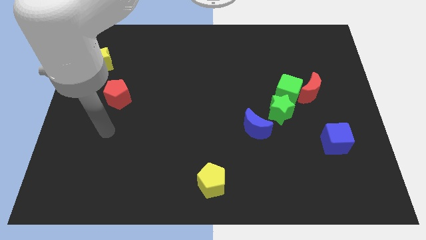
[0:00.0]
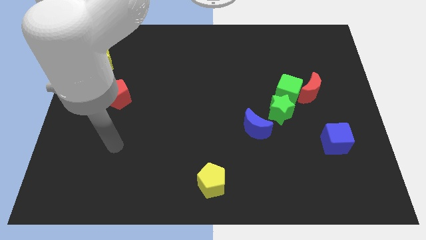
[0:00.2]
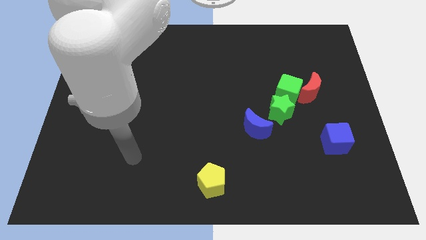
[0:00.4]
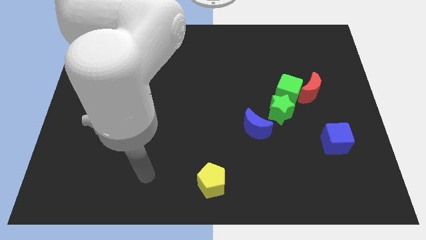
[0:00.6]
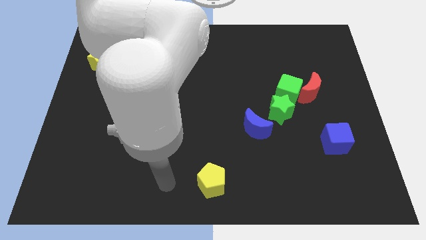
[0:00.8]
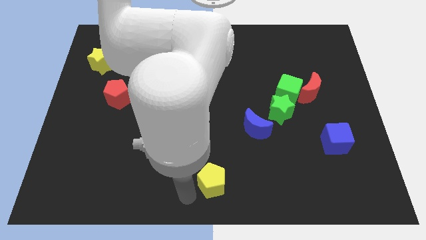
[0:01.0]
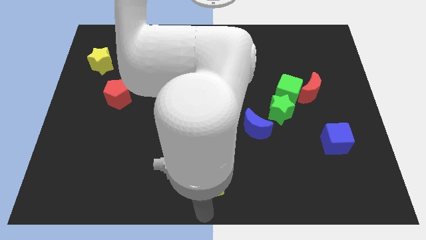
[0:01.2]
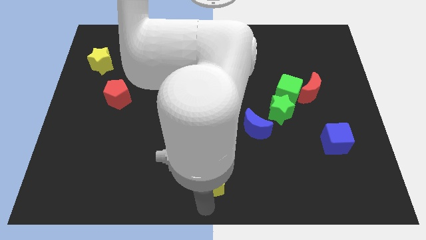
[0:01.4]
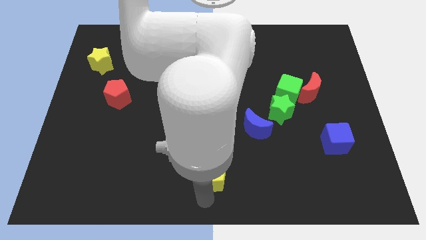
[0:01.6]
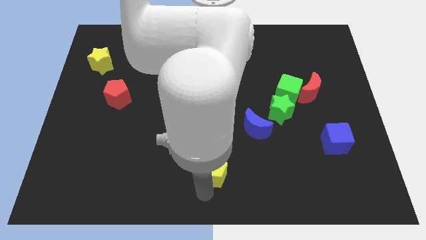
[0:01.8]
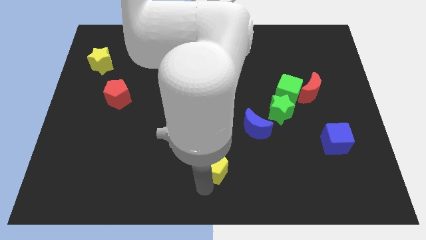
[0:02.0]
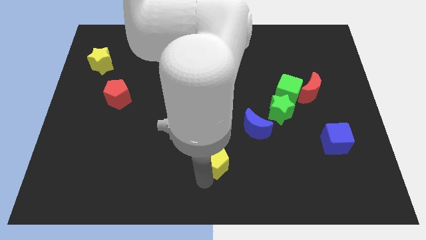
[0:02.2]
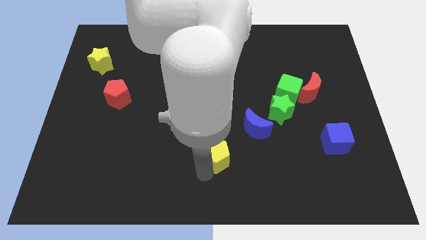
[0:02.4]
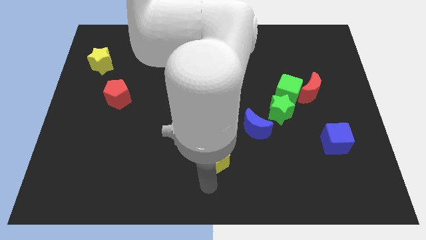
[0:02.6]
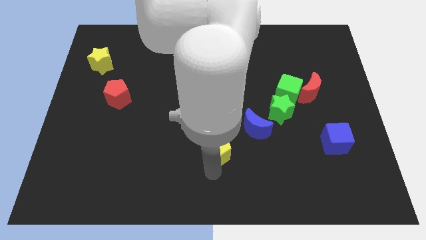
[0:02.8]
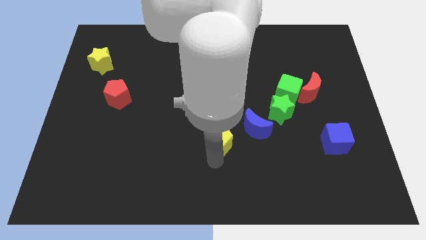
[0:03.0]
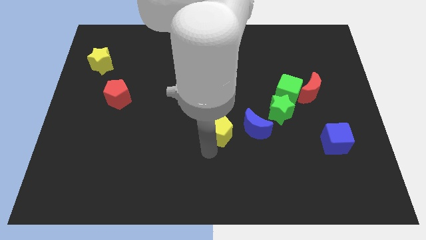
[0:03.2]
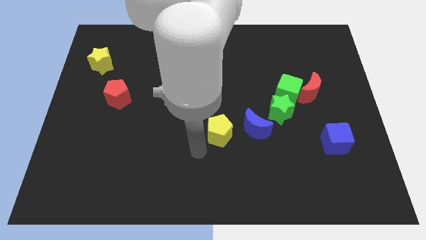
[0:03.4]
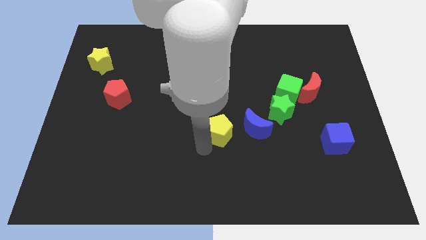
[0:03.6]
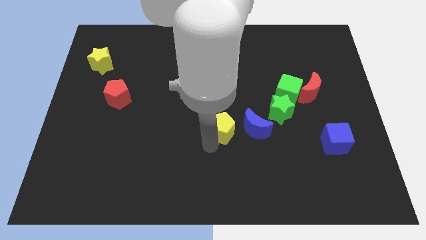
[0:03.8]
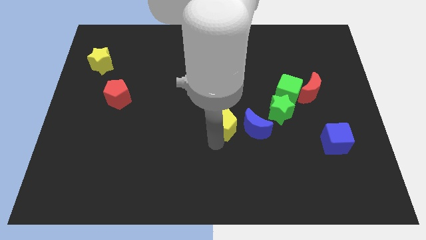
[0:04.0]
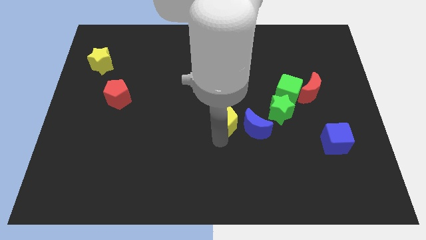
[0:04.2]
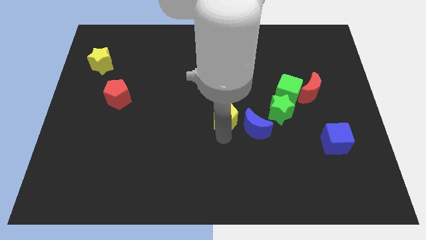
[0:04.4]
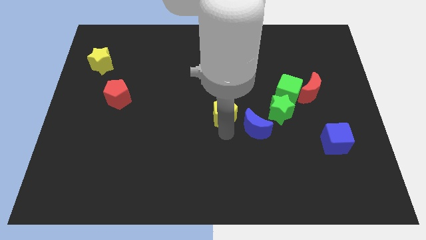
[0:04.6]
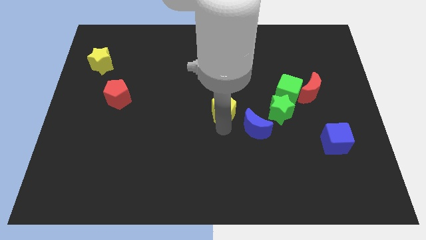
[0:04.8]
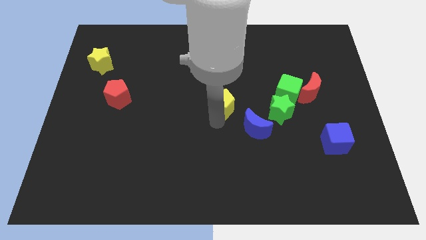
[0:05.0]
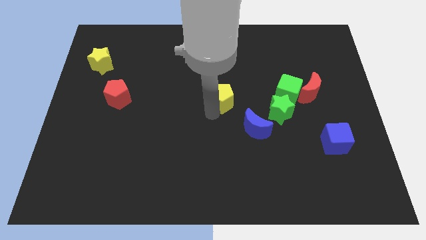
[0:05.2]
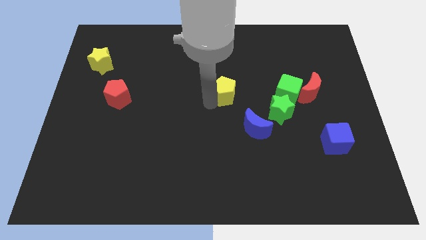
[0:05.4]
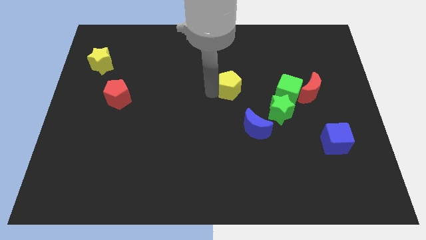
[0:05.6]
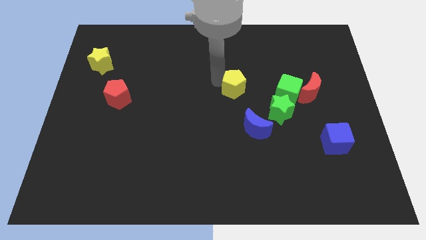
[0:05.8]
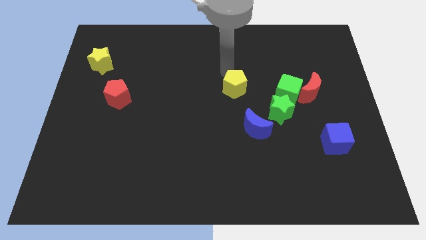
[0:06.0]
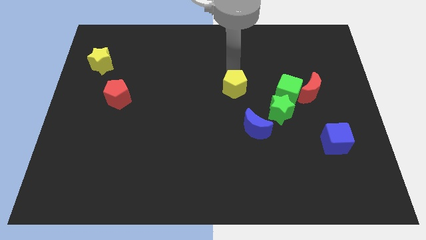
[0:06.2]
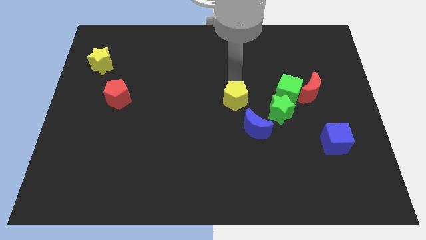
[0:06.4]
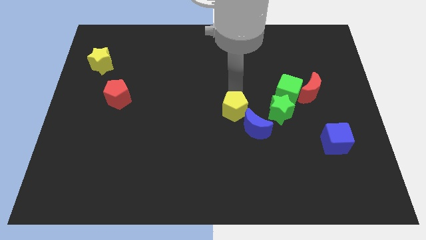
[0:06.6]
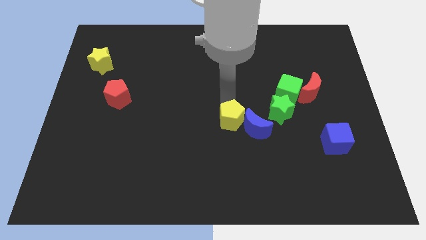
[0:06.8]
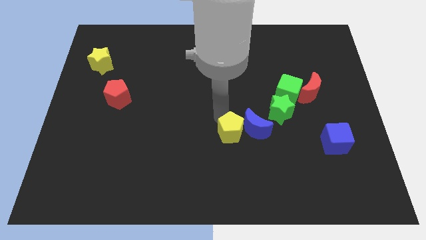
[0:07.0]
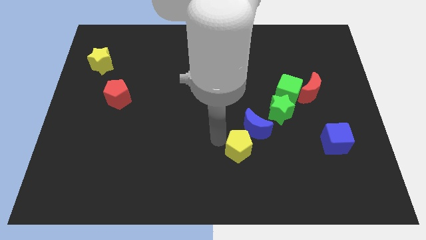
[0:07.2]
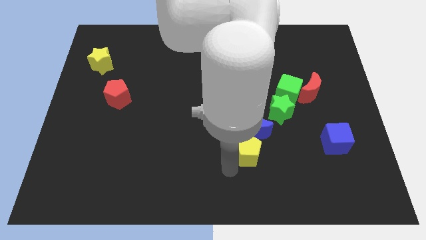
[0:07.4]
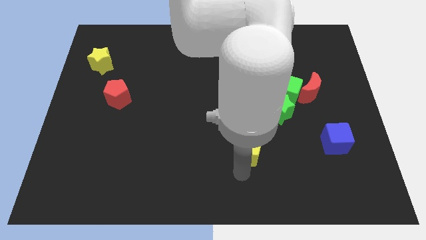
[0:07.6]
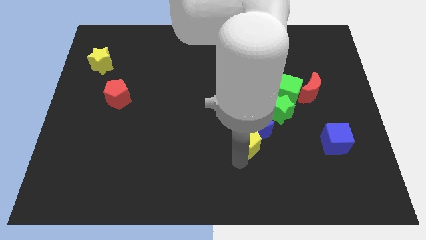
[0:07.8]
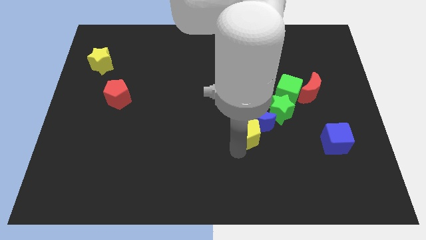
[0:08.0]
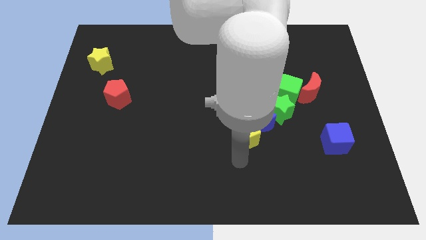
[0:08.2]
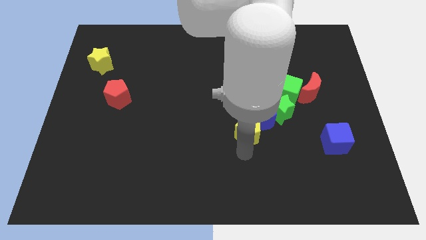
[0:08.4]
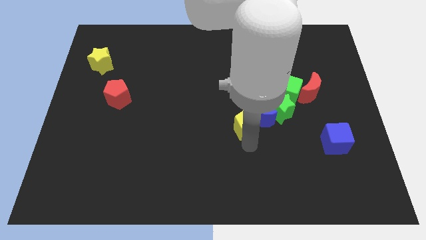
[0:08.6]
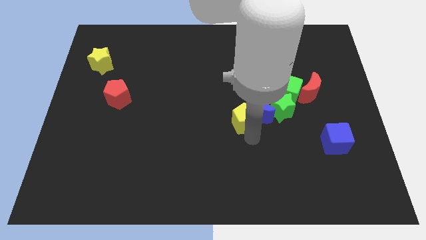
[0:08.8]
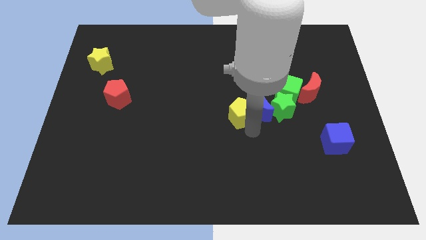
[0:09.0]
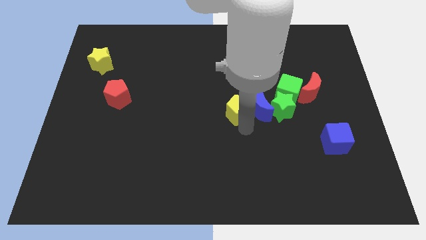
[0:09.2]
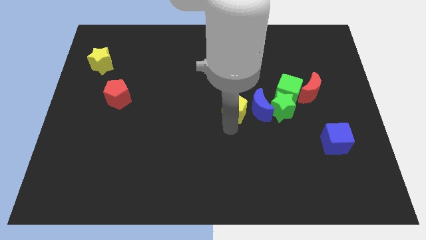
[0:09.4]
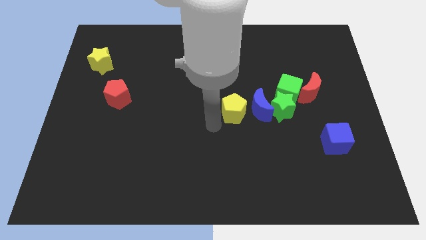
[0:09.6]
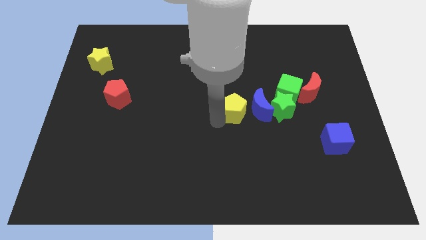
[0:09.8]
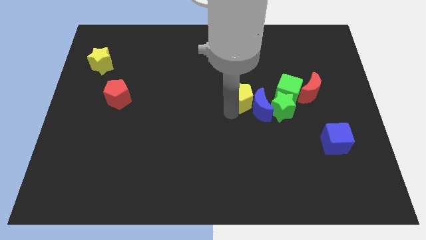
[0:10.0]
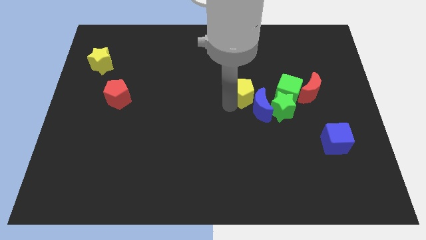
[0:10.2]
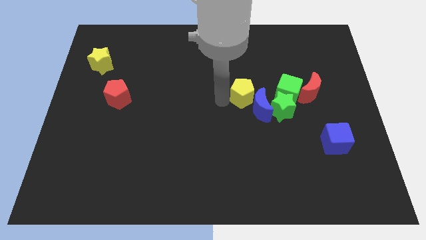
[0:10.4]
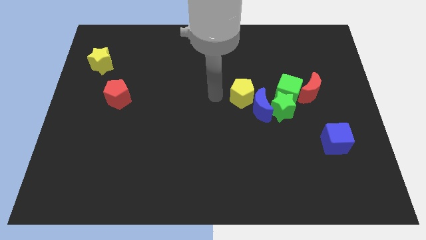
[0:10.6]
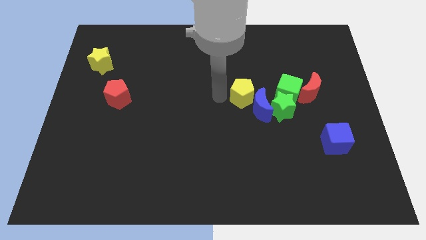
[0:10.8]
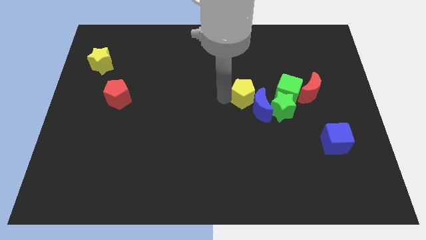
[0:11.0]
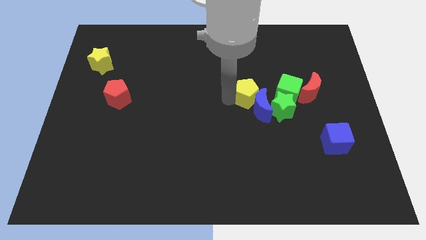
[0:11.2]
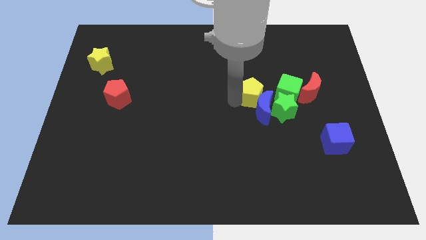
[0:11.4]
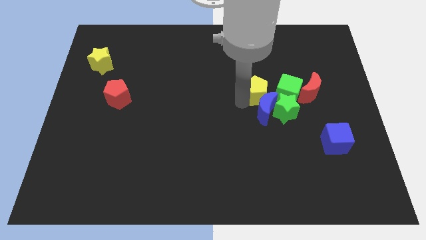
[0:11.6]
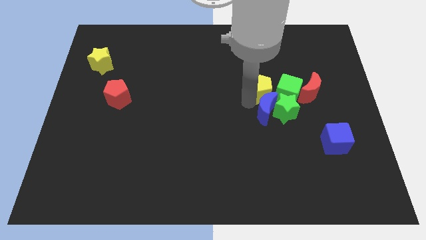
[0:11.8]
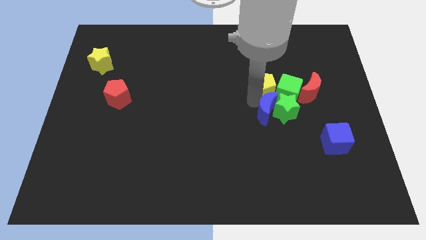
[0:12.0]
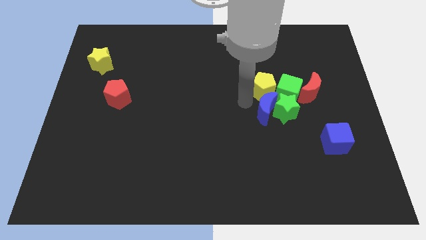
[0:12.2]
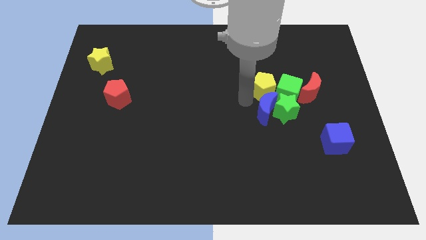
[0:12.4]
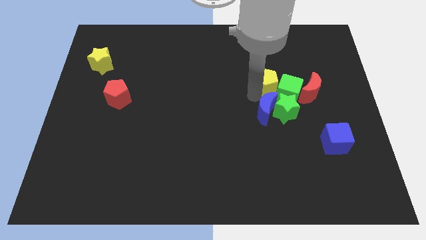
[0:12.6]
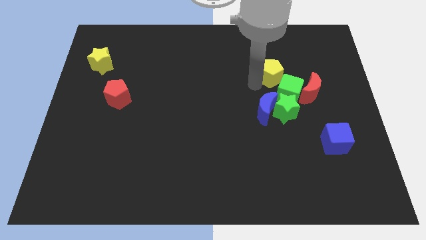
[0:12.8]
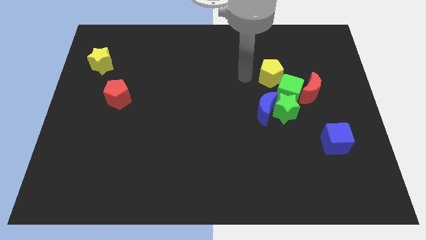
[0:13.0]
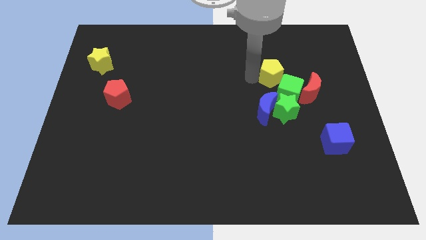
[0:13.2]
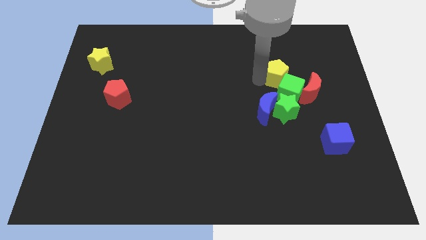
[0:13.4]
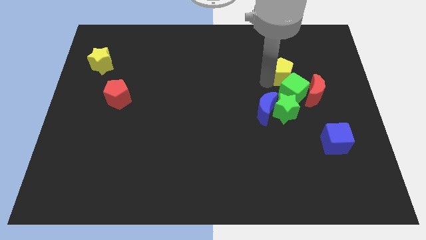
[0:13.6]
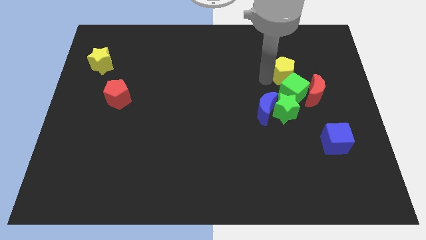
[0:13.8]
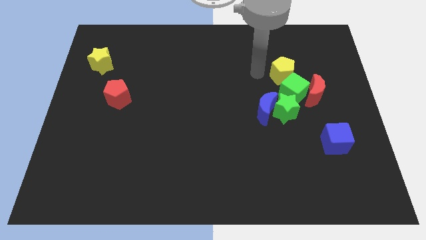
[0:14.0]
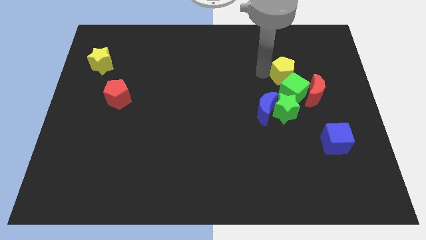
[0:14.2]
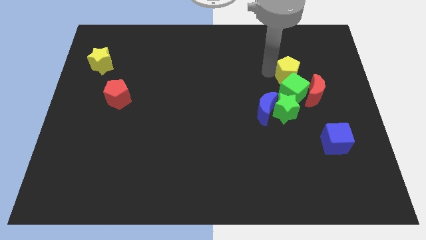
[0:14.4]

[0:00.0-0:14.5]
push the yellow pentagon diagonally up and to the right of the green cube
